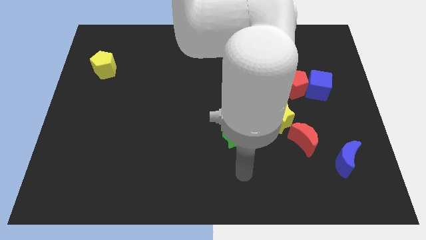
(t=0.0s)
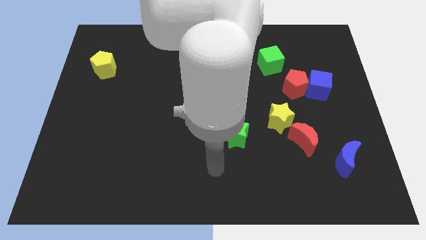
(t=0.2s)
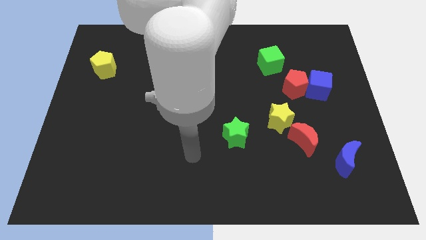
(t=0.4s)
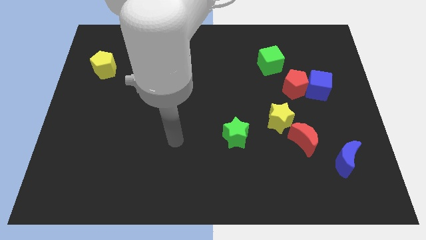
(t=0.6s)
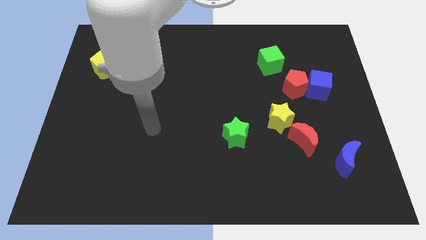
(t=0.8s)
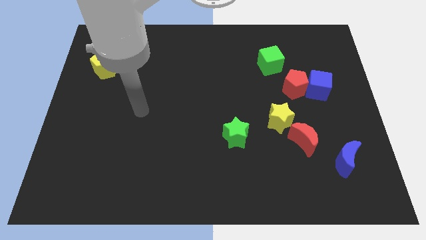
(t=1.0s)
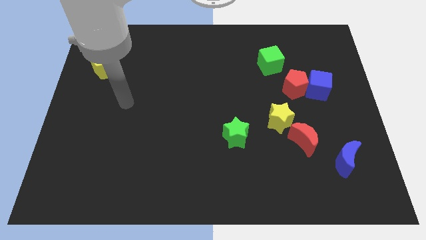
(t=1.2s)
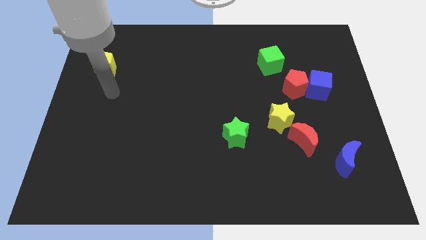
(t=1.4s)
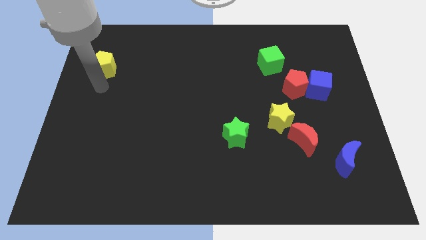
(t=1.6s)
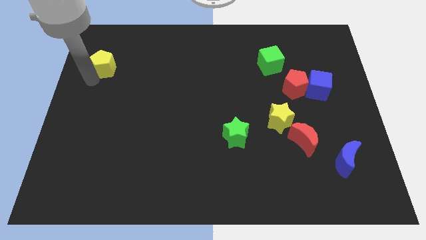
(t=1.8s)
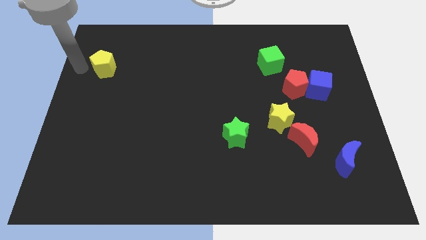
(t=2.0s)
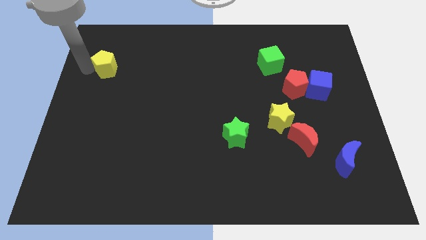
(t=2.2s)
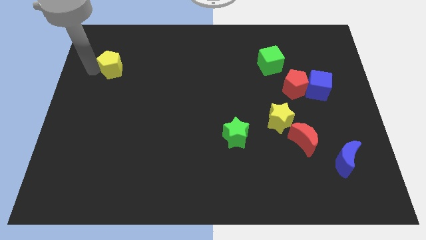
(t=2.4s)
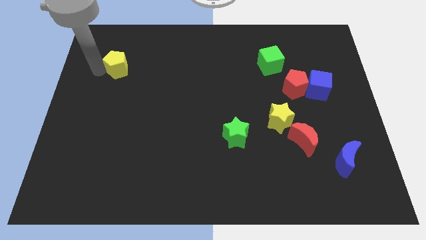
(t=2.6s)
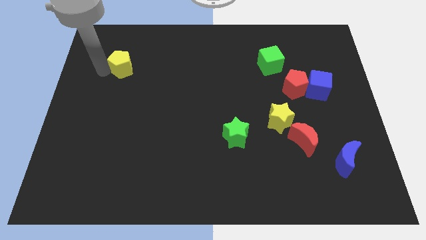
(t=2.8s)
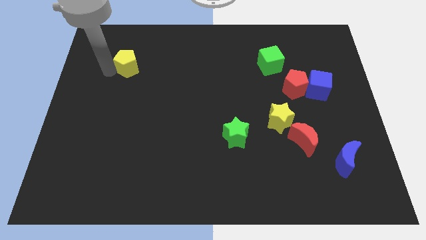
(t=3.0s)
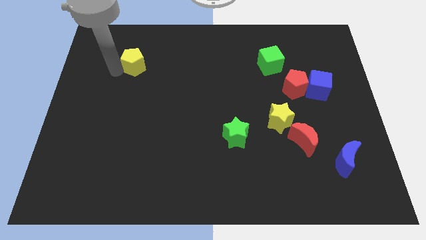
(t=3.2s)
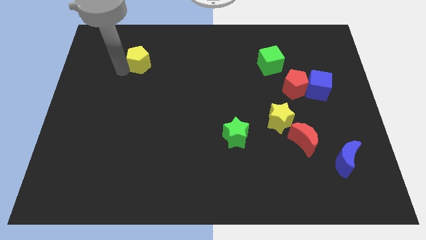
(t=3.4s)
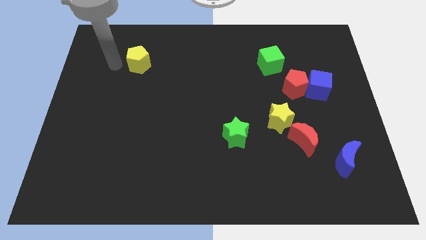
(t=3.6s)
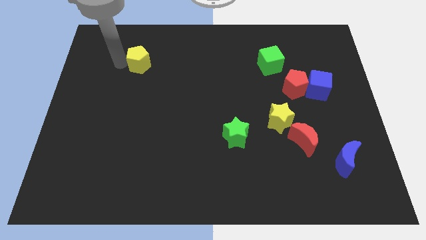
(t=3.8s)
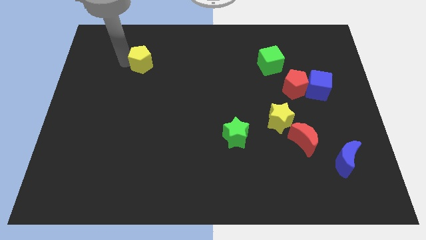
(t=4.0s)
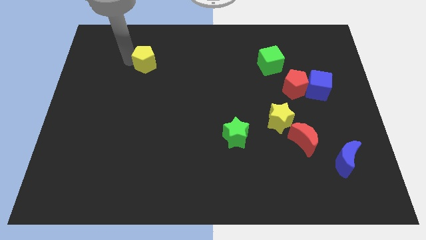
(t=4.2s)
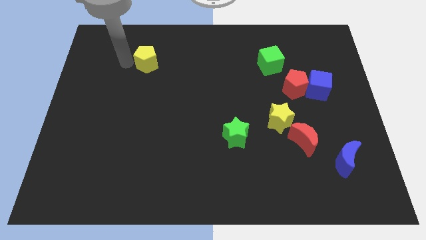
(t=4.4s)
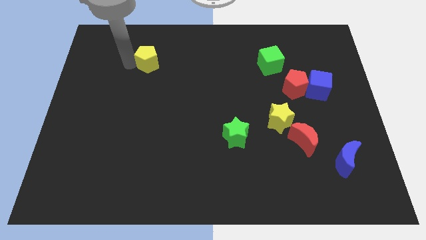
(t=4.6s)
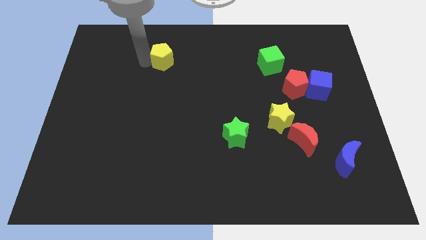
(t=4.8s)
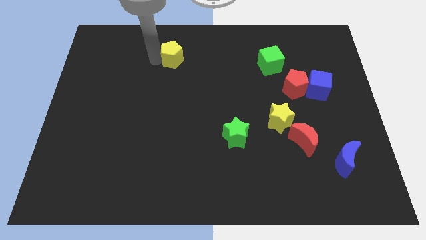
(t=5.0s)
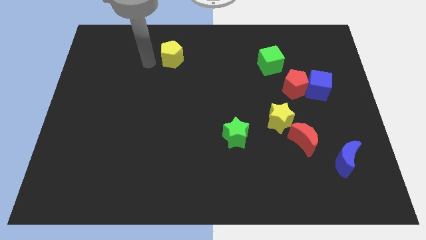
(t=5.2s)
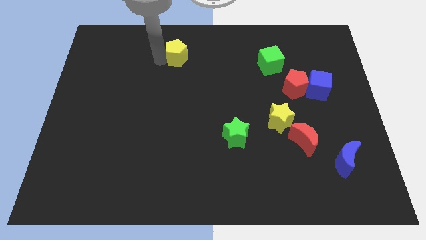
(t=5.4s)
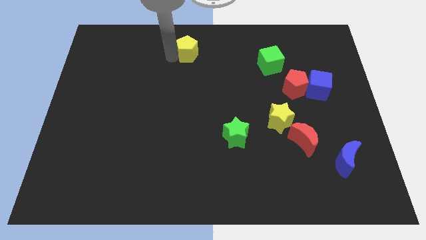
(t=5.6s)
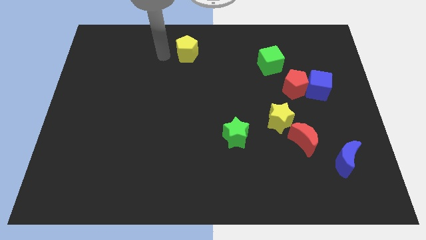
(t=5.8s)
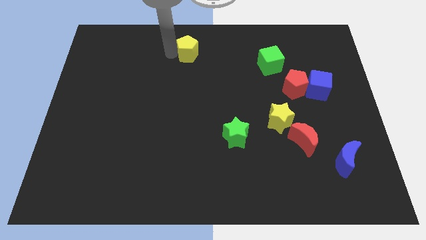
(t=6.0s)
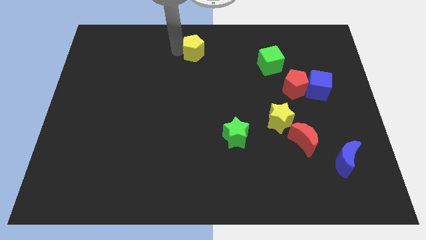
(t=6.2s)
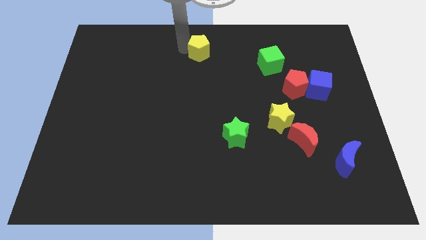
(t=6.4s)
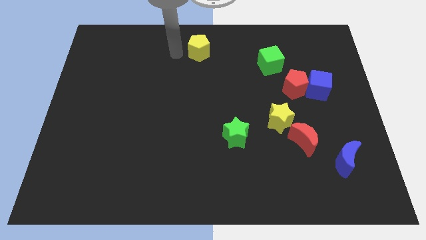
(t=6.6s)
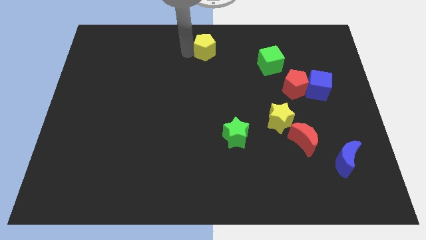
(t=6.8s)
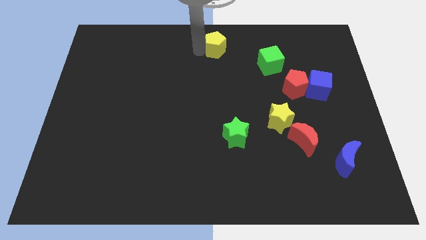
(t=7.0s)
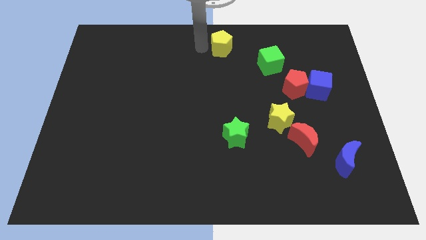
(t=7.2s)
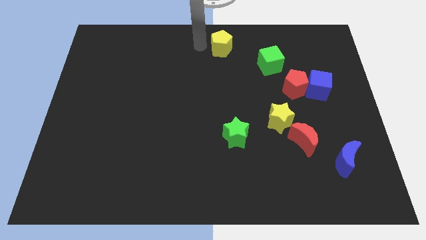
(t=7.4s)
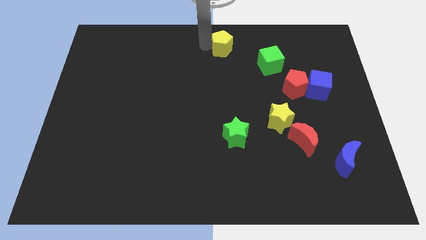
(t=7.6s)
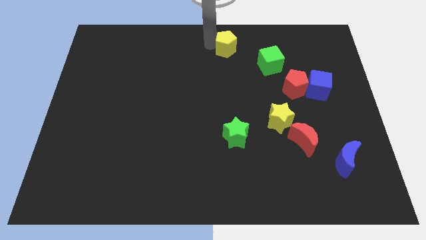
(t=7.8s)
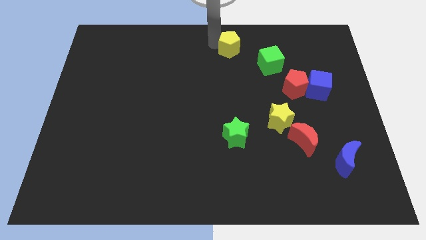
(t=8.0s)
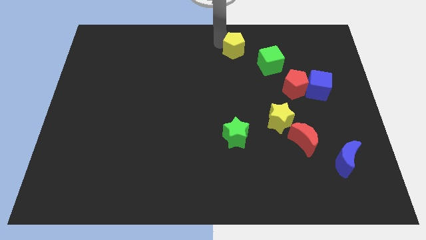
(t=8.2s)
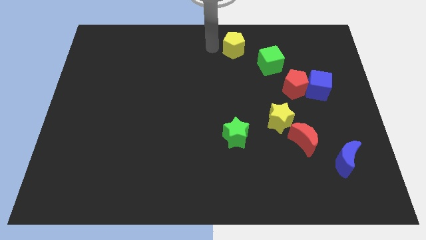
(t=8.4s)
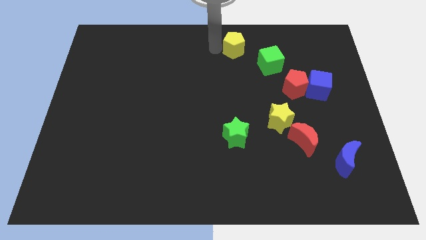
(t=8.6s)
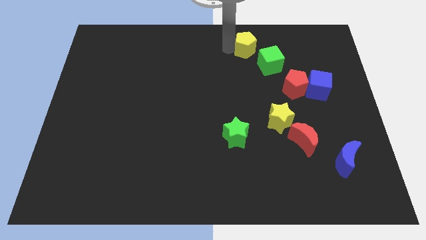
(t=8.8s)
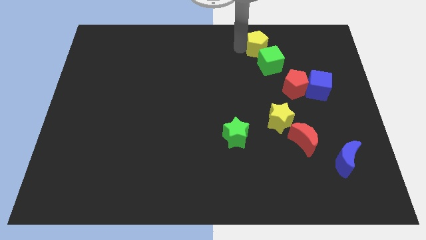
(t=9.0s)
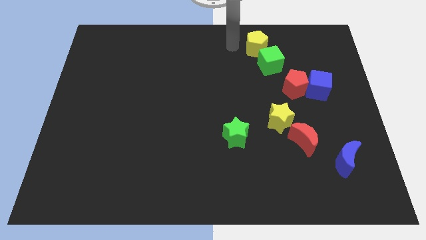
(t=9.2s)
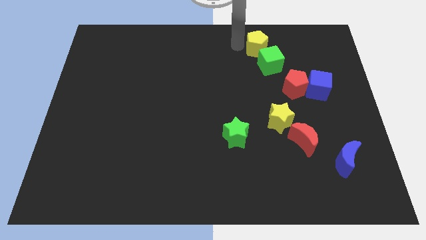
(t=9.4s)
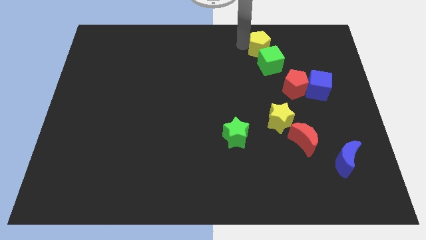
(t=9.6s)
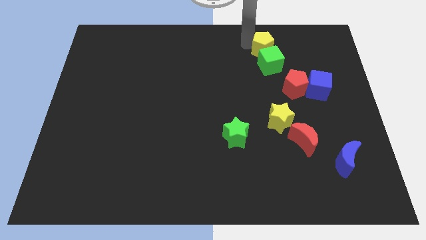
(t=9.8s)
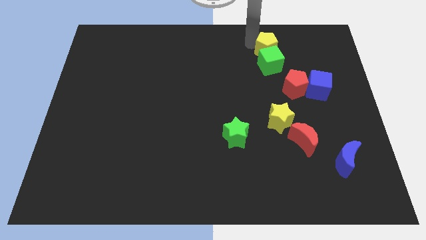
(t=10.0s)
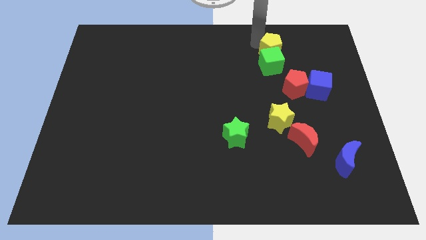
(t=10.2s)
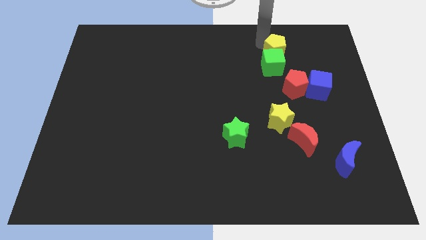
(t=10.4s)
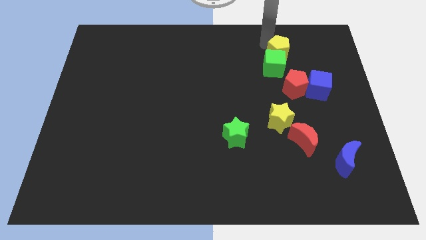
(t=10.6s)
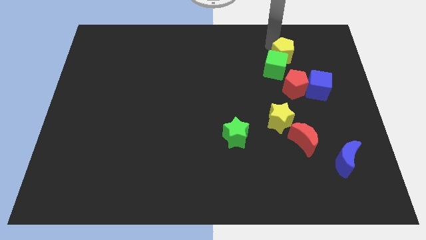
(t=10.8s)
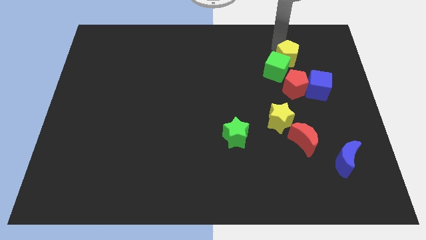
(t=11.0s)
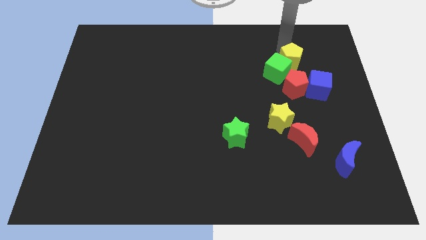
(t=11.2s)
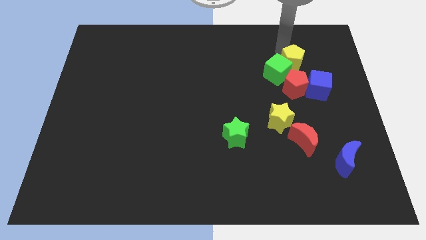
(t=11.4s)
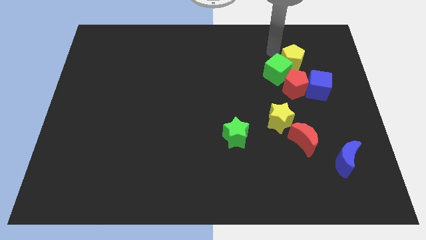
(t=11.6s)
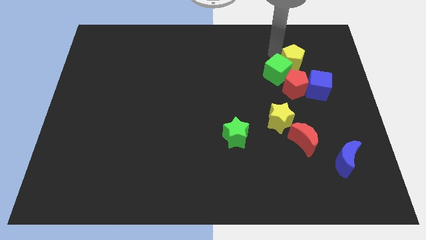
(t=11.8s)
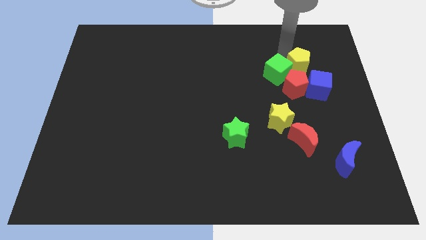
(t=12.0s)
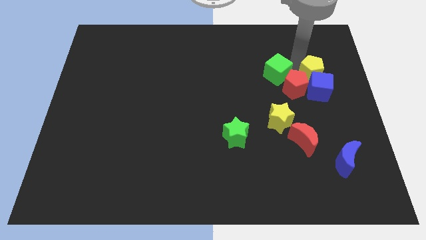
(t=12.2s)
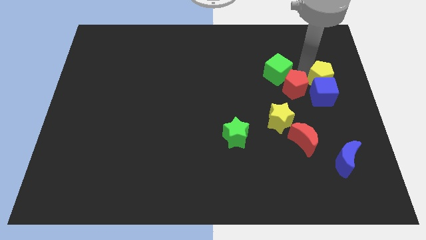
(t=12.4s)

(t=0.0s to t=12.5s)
move the yellow pentagon to the right side
